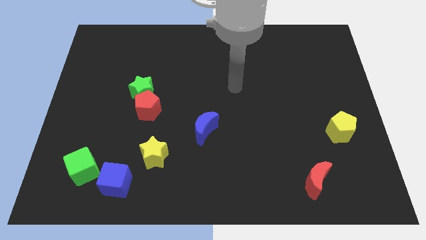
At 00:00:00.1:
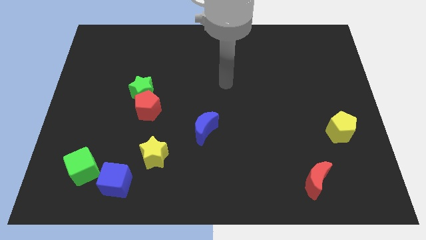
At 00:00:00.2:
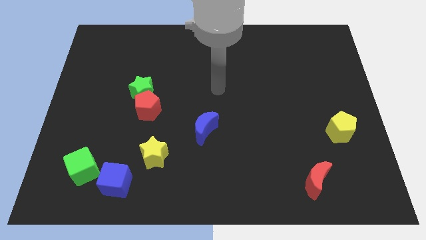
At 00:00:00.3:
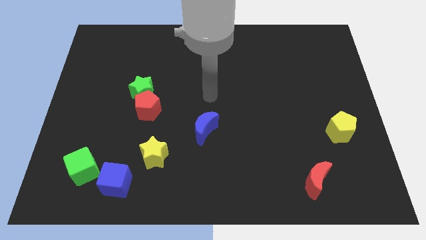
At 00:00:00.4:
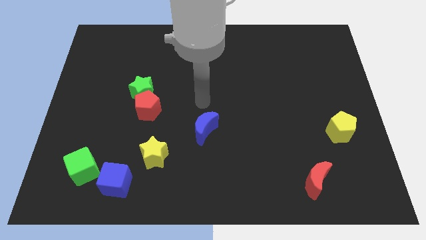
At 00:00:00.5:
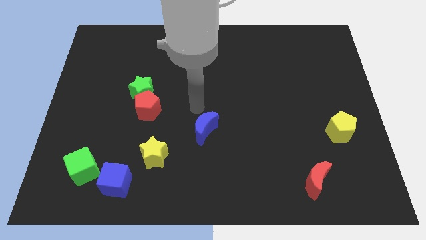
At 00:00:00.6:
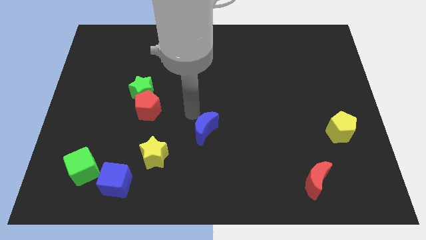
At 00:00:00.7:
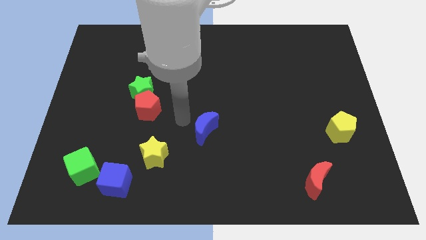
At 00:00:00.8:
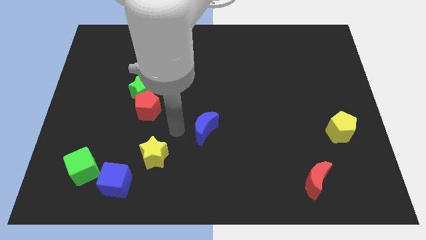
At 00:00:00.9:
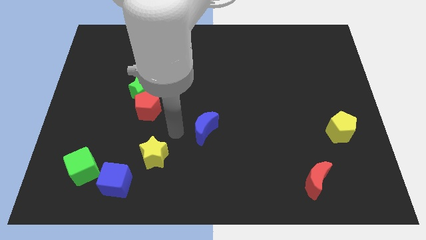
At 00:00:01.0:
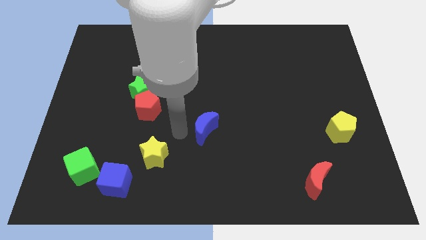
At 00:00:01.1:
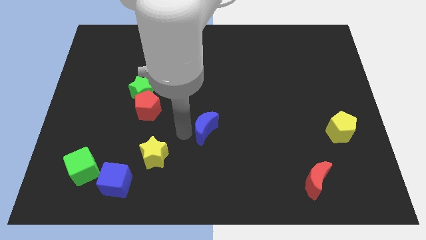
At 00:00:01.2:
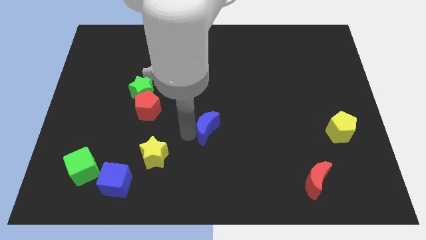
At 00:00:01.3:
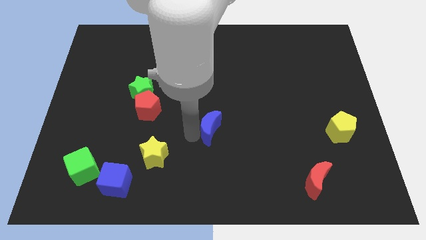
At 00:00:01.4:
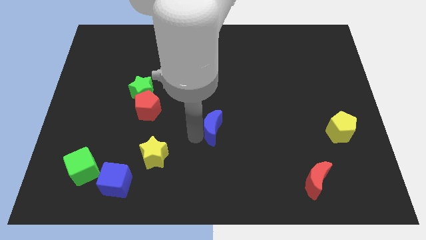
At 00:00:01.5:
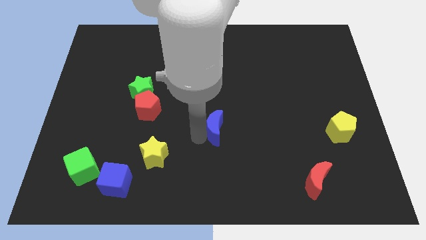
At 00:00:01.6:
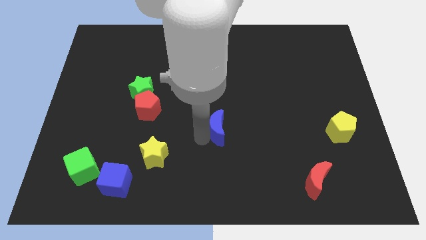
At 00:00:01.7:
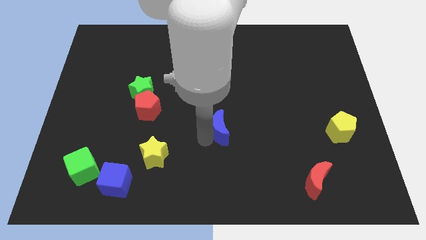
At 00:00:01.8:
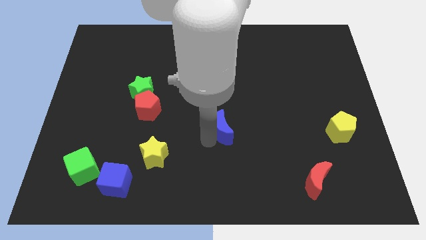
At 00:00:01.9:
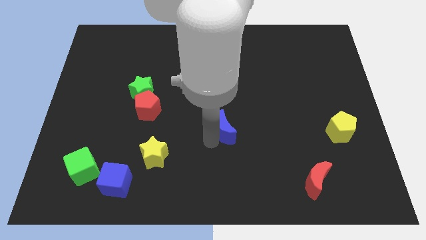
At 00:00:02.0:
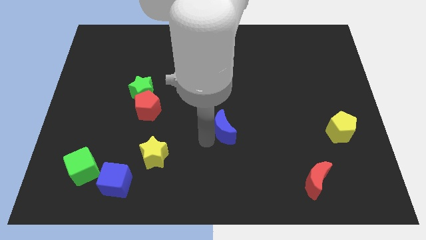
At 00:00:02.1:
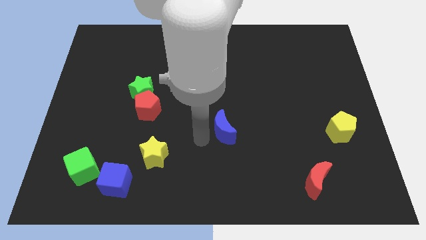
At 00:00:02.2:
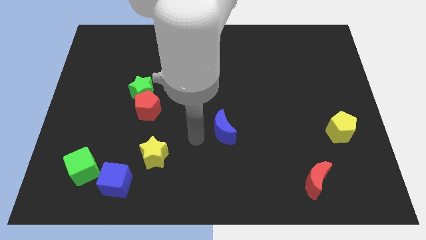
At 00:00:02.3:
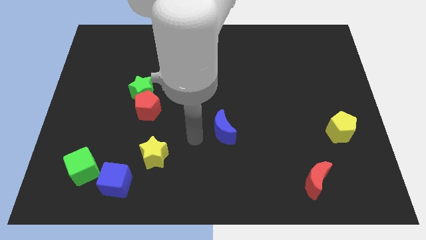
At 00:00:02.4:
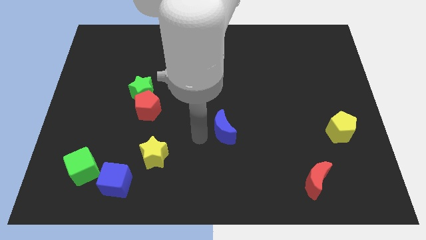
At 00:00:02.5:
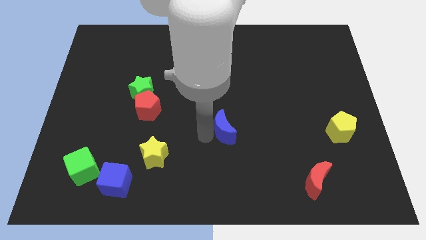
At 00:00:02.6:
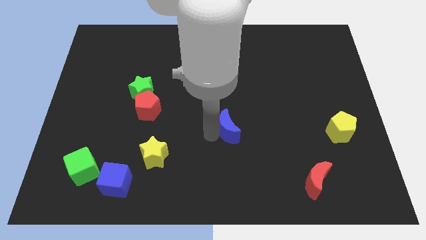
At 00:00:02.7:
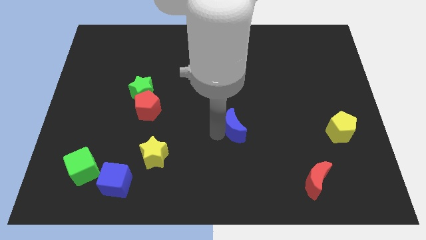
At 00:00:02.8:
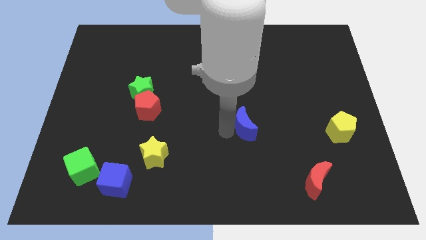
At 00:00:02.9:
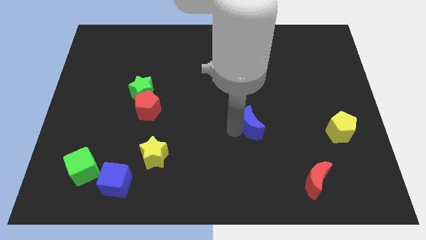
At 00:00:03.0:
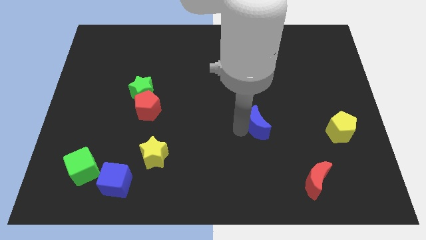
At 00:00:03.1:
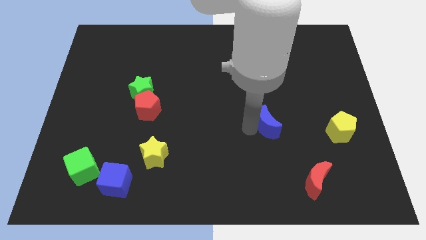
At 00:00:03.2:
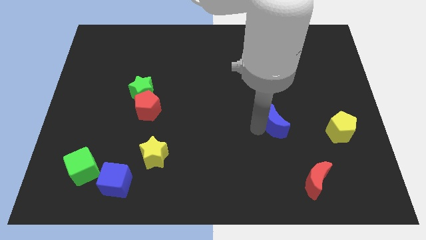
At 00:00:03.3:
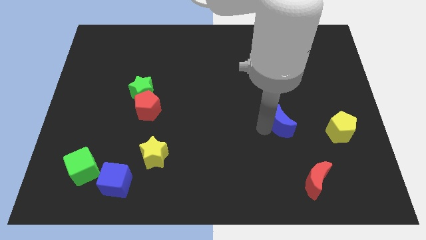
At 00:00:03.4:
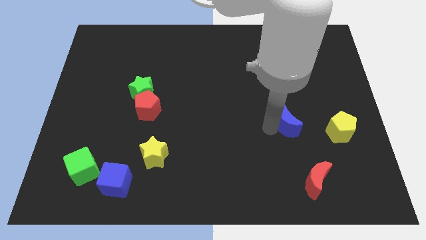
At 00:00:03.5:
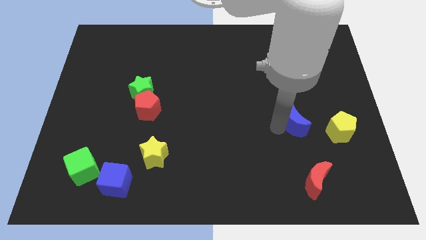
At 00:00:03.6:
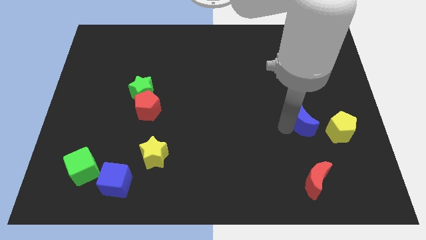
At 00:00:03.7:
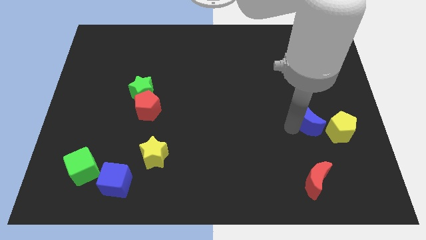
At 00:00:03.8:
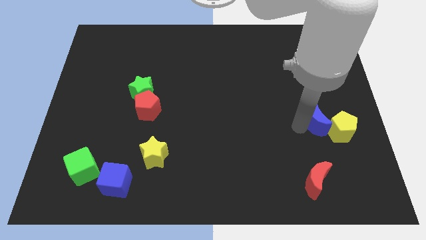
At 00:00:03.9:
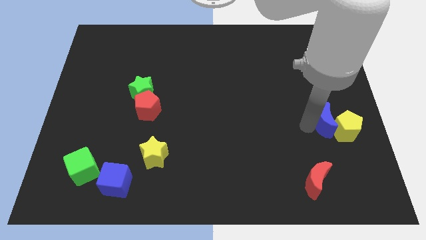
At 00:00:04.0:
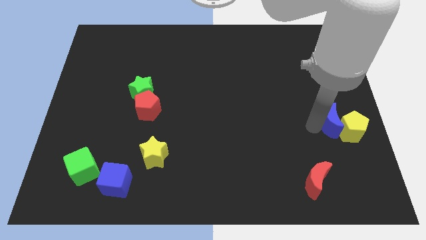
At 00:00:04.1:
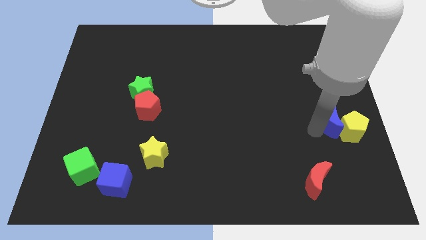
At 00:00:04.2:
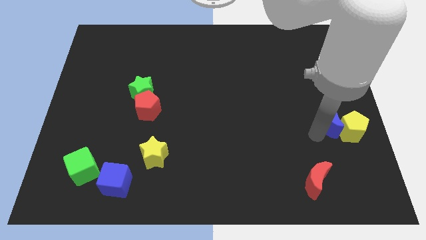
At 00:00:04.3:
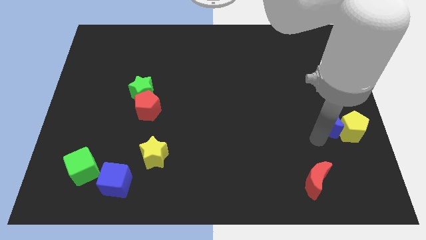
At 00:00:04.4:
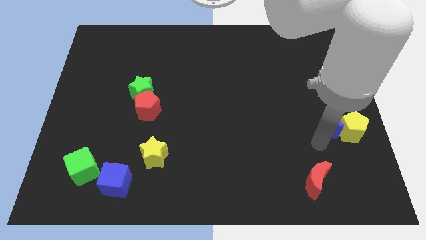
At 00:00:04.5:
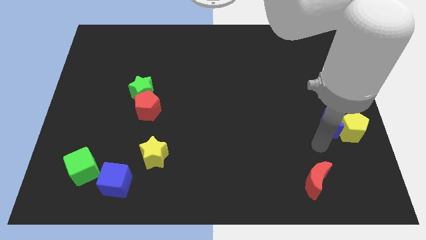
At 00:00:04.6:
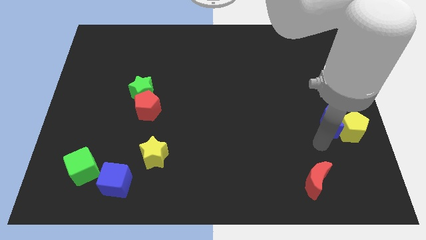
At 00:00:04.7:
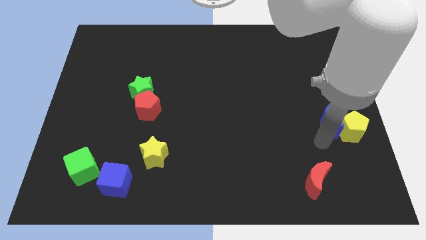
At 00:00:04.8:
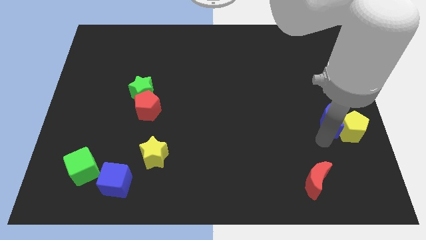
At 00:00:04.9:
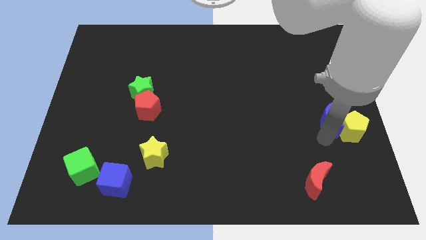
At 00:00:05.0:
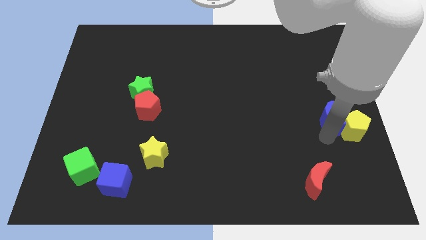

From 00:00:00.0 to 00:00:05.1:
put the blue moon to the right side

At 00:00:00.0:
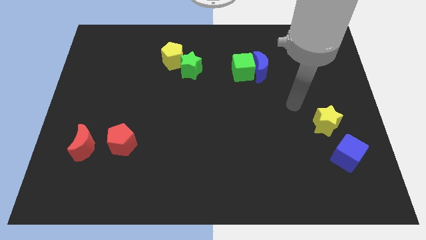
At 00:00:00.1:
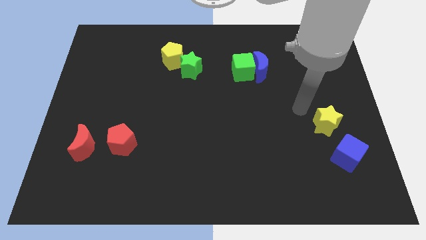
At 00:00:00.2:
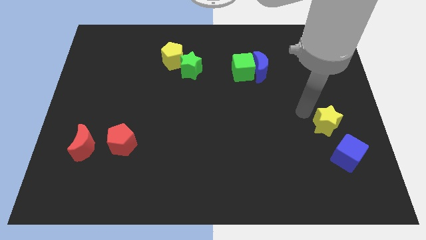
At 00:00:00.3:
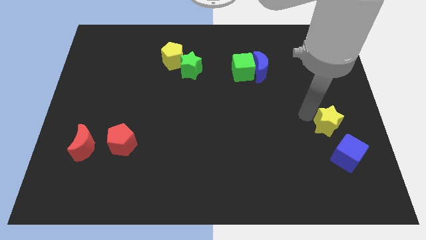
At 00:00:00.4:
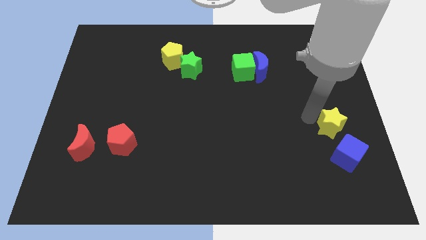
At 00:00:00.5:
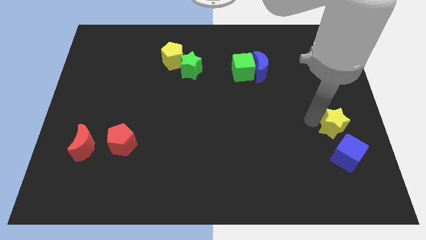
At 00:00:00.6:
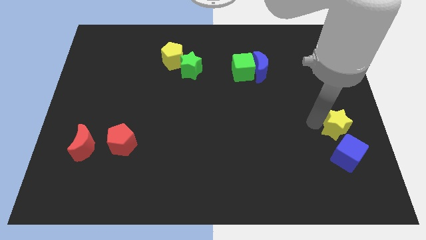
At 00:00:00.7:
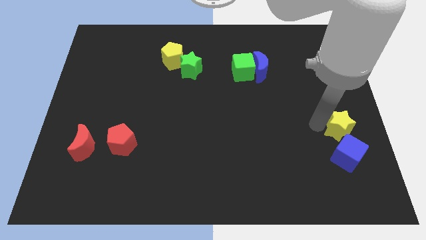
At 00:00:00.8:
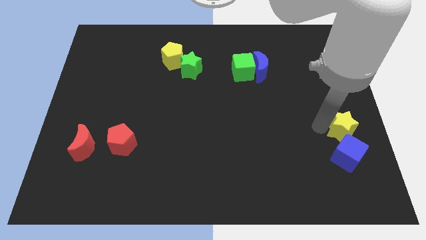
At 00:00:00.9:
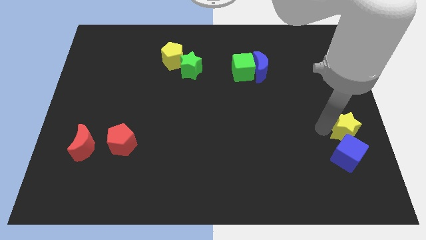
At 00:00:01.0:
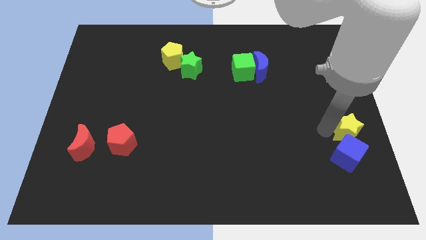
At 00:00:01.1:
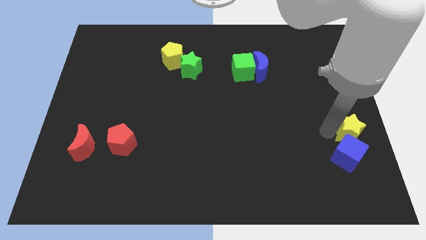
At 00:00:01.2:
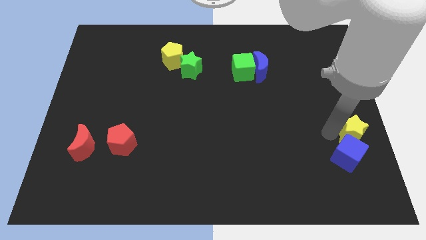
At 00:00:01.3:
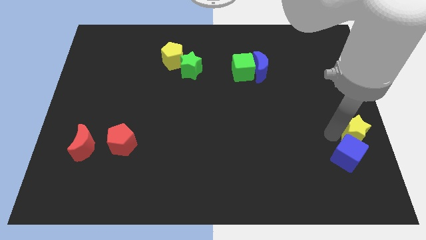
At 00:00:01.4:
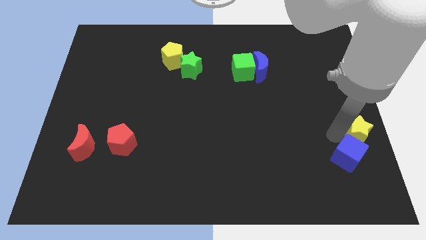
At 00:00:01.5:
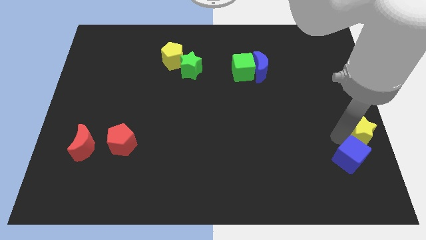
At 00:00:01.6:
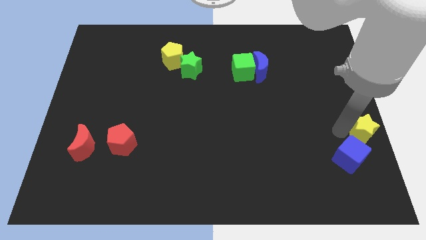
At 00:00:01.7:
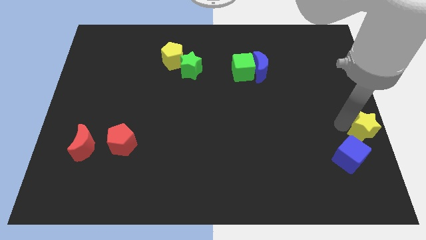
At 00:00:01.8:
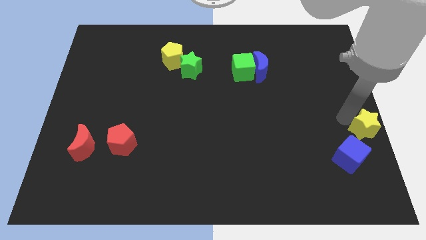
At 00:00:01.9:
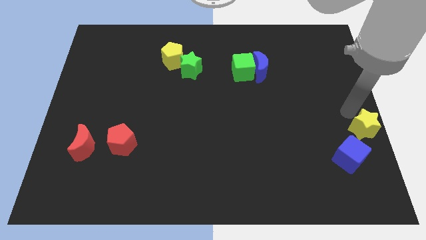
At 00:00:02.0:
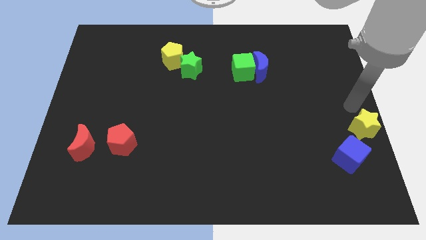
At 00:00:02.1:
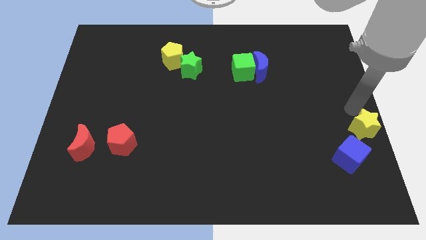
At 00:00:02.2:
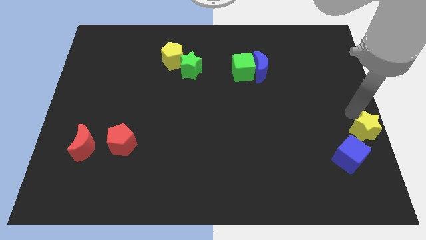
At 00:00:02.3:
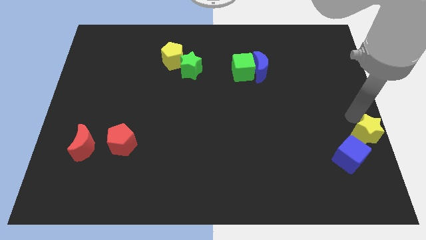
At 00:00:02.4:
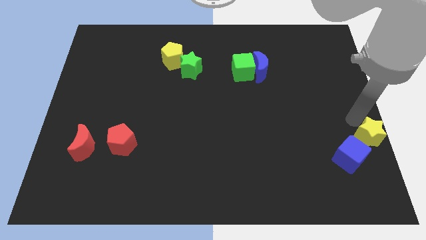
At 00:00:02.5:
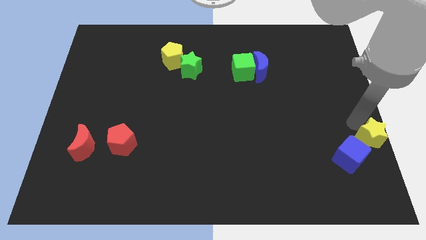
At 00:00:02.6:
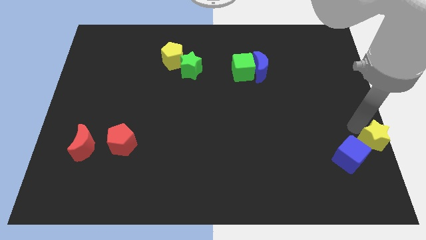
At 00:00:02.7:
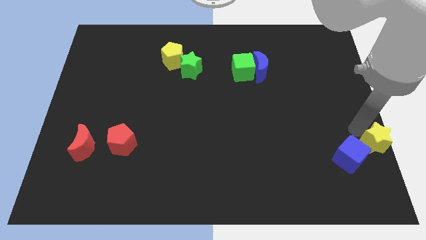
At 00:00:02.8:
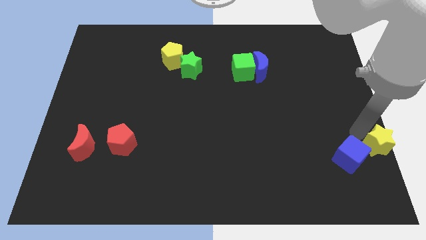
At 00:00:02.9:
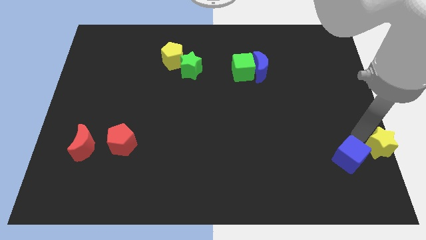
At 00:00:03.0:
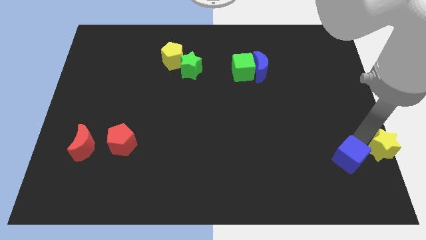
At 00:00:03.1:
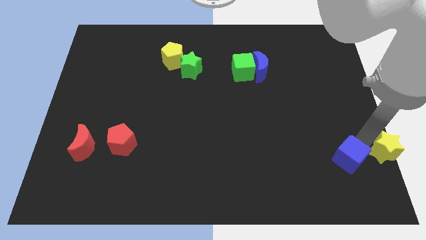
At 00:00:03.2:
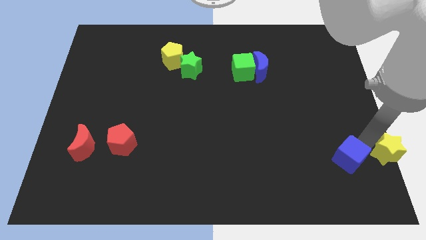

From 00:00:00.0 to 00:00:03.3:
move the yellow star to the bottom right of the board
